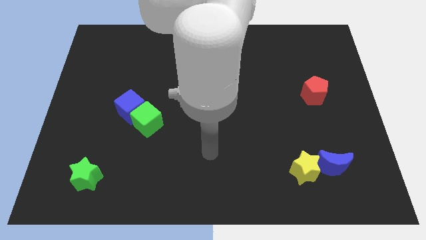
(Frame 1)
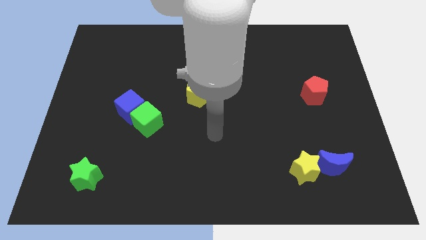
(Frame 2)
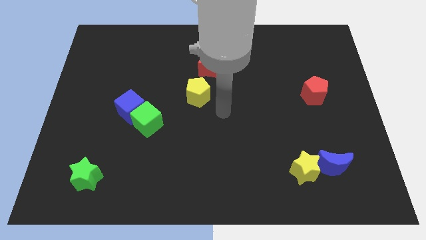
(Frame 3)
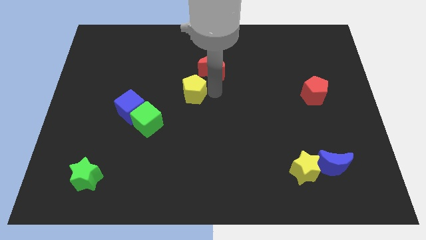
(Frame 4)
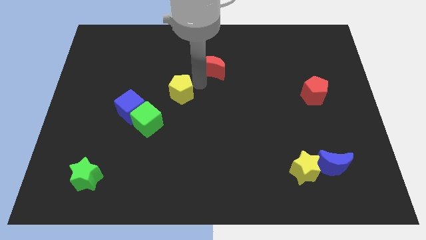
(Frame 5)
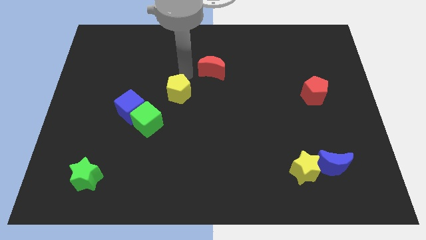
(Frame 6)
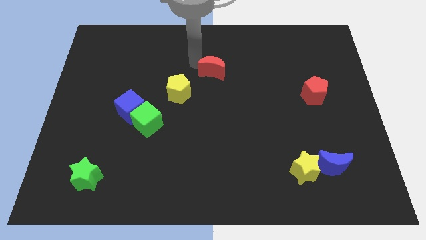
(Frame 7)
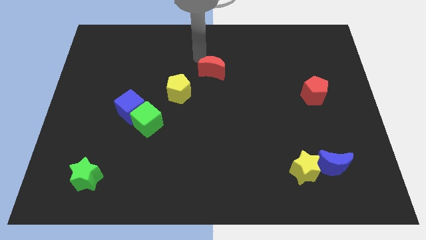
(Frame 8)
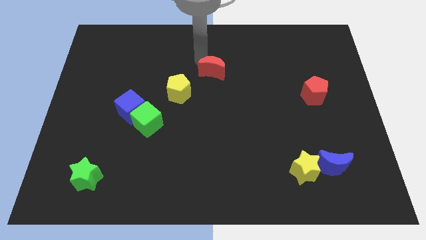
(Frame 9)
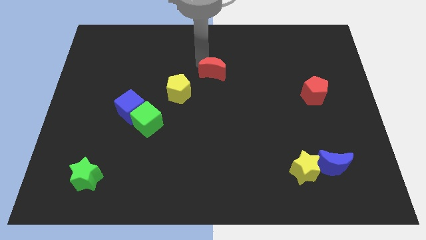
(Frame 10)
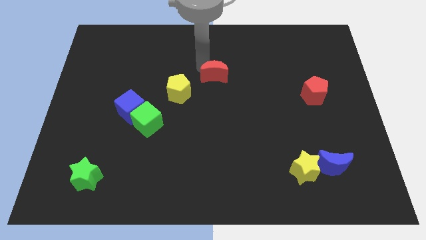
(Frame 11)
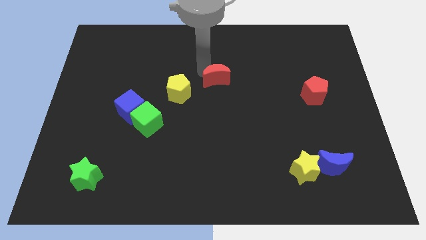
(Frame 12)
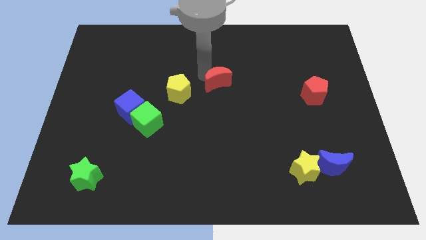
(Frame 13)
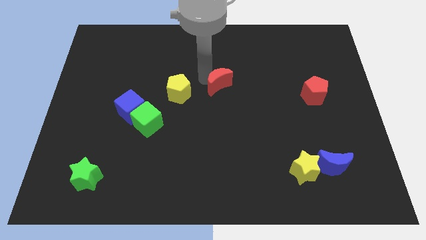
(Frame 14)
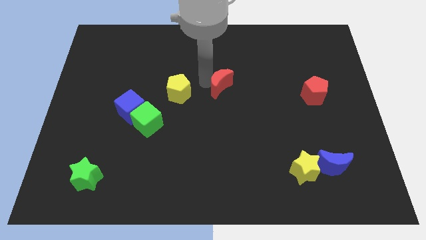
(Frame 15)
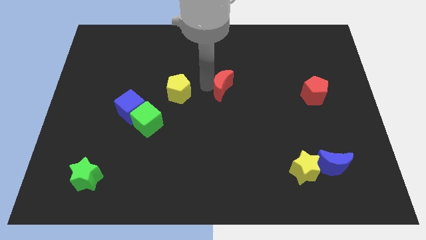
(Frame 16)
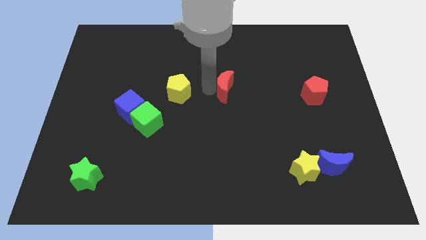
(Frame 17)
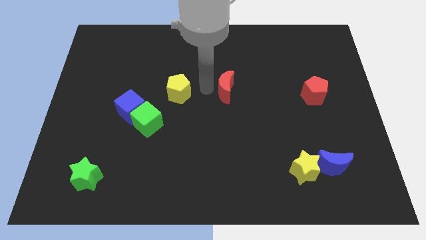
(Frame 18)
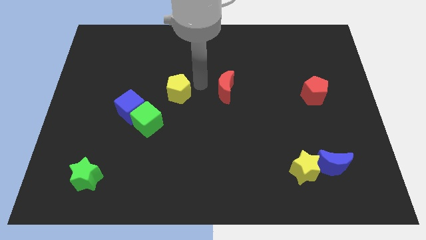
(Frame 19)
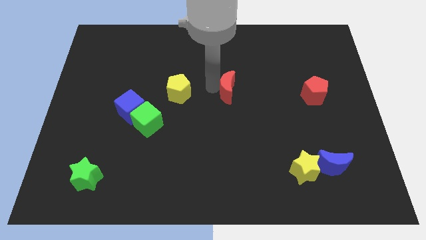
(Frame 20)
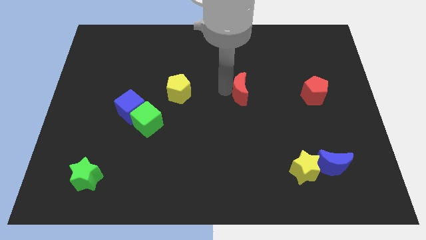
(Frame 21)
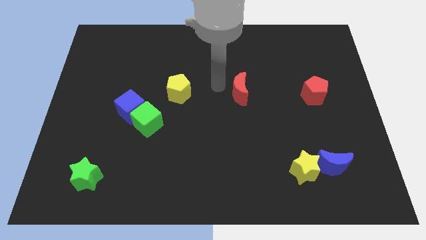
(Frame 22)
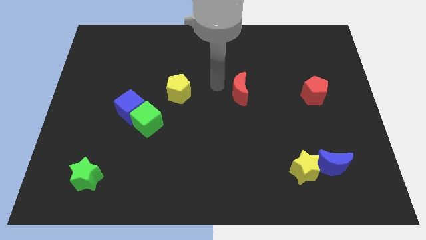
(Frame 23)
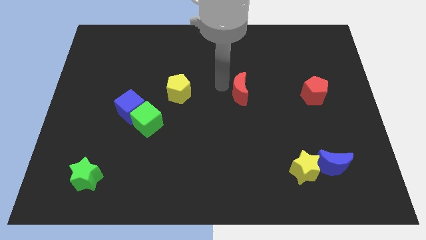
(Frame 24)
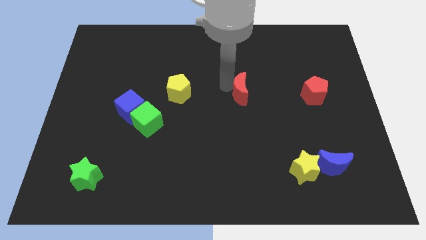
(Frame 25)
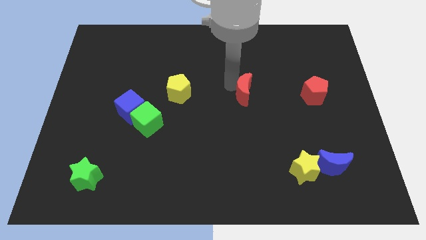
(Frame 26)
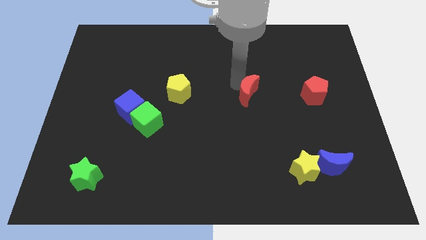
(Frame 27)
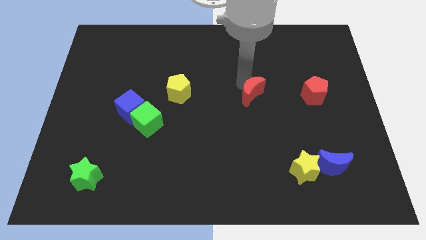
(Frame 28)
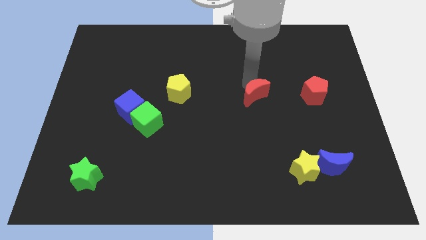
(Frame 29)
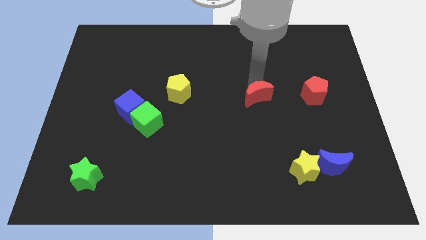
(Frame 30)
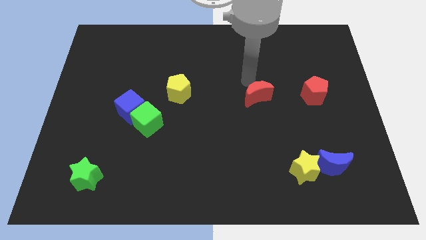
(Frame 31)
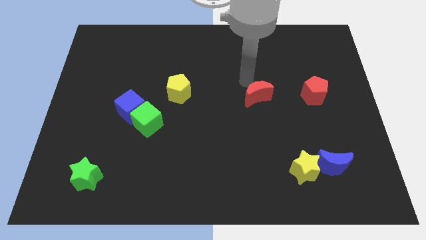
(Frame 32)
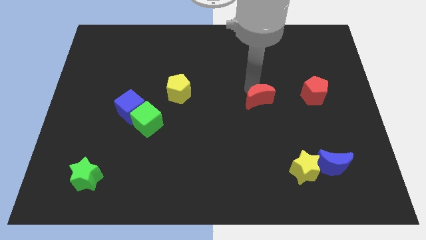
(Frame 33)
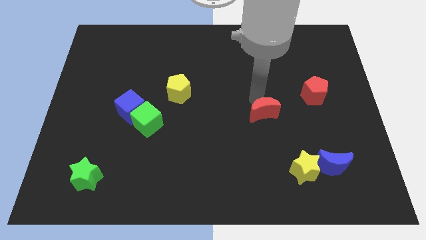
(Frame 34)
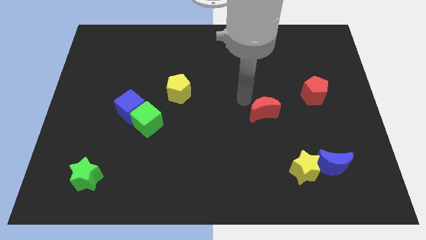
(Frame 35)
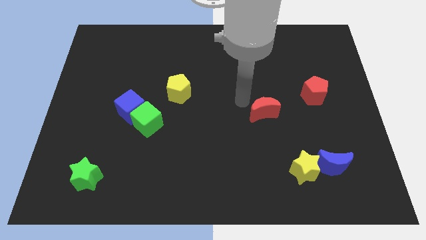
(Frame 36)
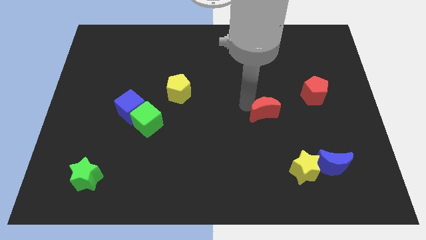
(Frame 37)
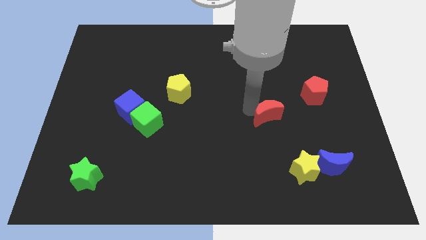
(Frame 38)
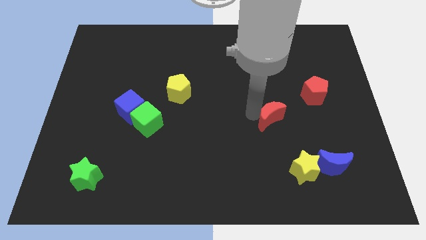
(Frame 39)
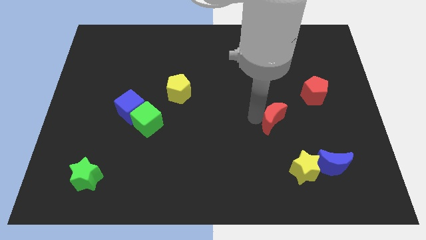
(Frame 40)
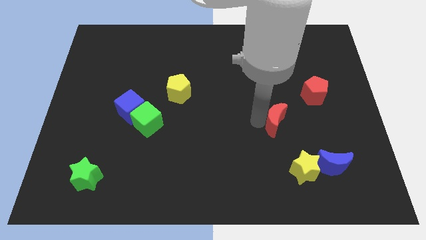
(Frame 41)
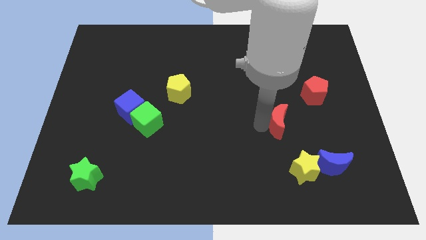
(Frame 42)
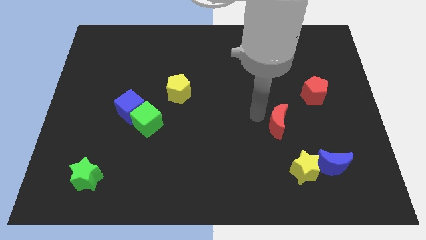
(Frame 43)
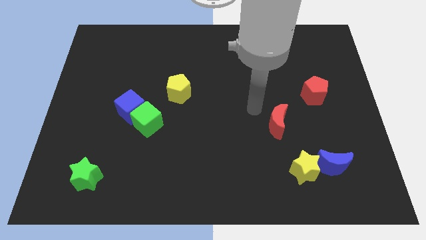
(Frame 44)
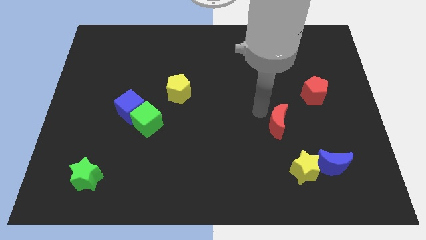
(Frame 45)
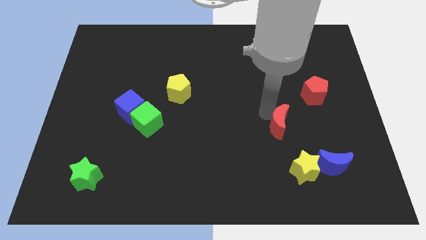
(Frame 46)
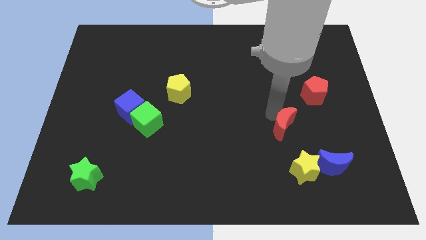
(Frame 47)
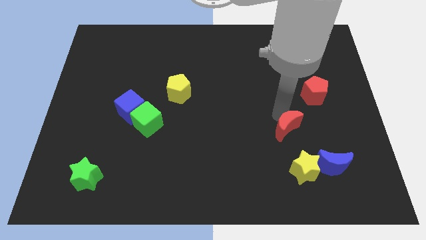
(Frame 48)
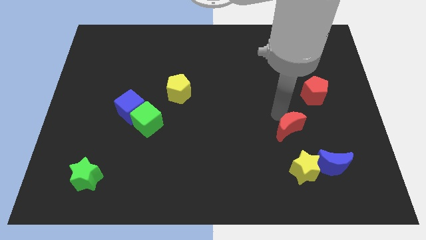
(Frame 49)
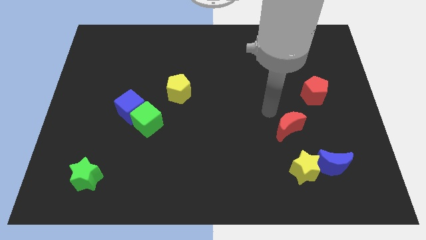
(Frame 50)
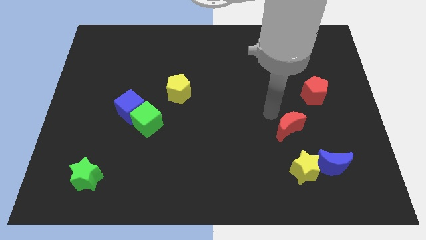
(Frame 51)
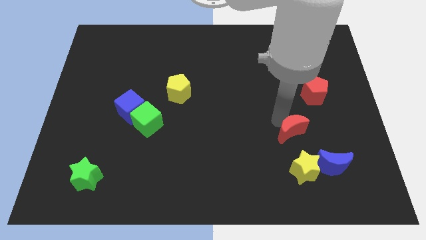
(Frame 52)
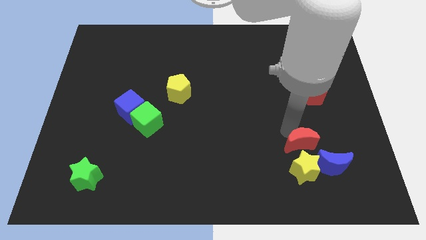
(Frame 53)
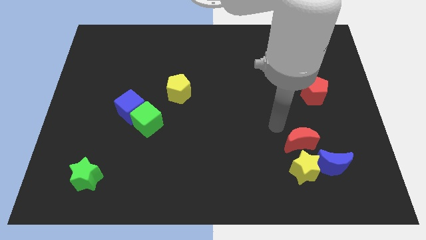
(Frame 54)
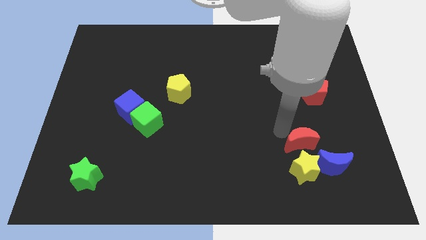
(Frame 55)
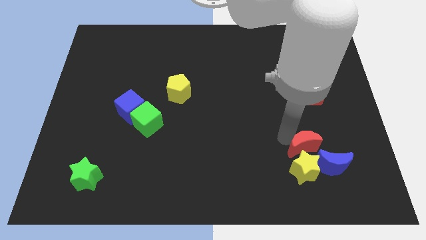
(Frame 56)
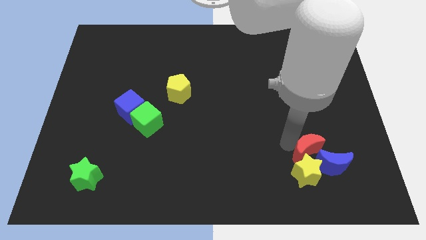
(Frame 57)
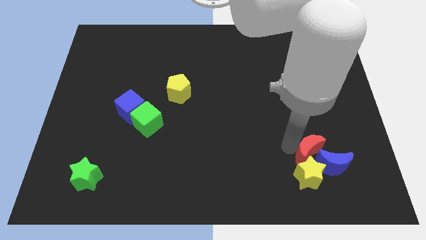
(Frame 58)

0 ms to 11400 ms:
slide the red moon close to the blue moon

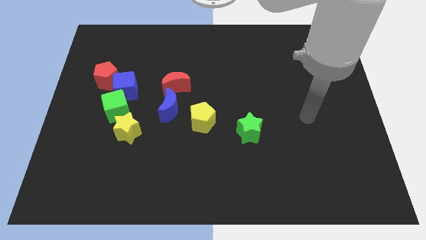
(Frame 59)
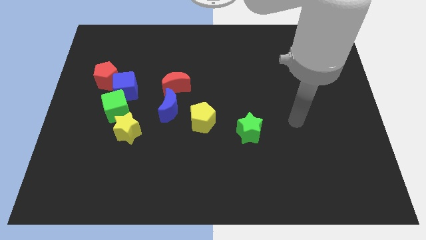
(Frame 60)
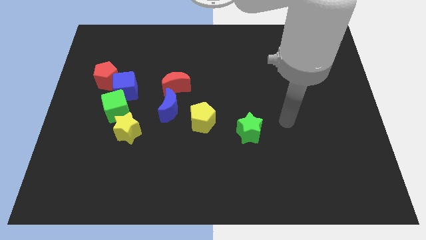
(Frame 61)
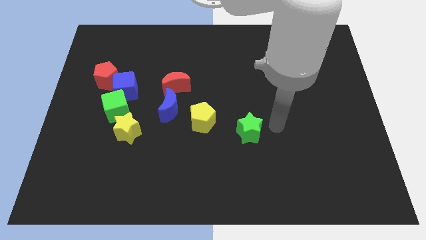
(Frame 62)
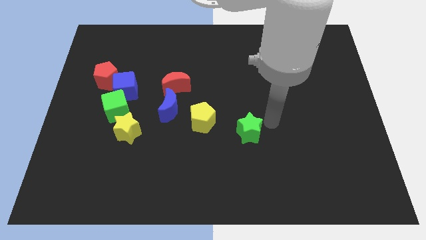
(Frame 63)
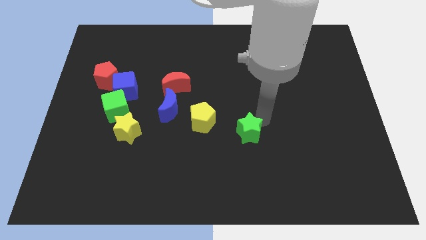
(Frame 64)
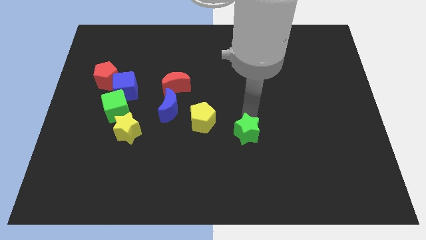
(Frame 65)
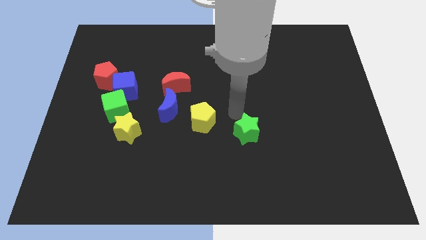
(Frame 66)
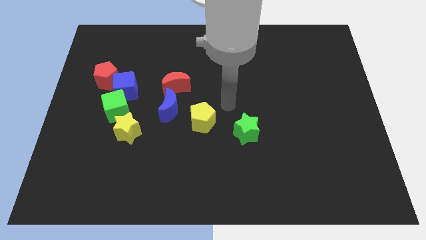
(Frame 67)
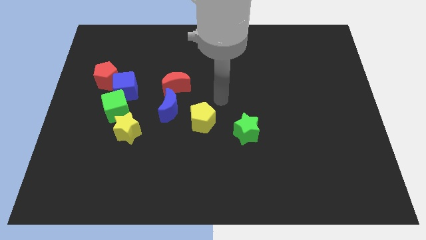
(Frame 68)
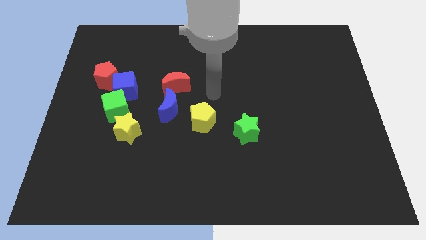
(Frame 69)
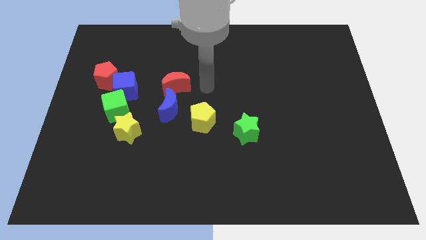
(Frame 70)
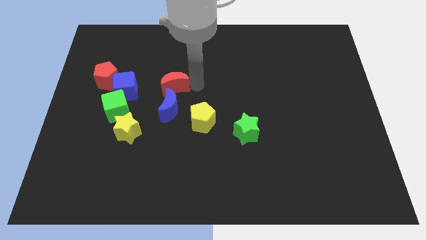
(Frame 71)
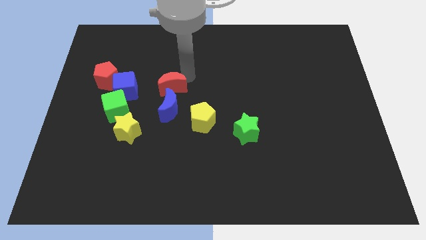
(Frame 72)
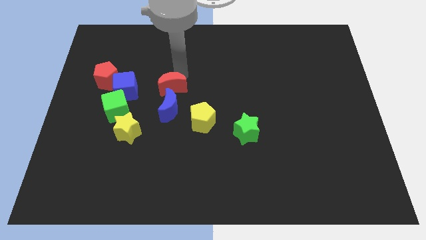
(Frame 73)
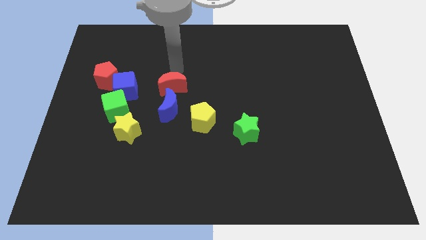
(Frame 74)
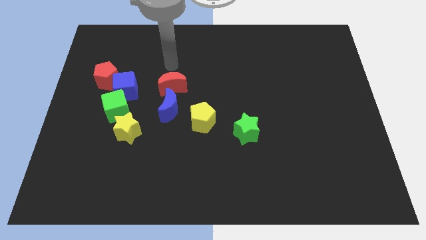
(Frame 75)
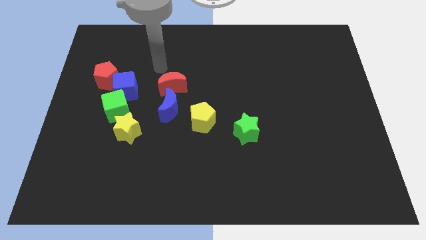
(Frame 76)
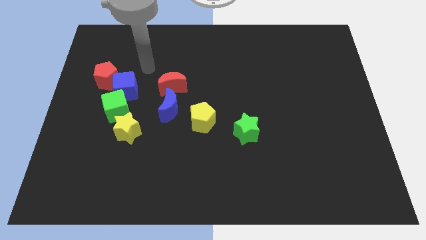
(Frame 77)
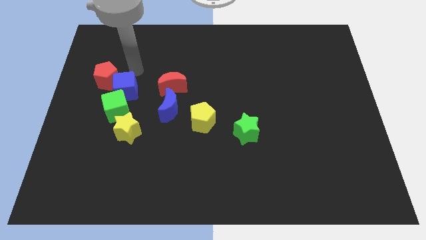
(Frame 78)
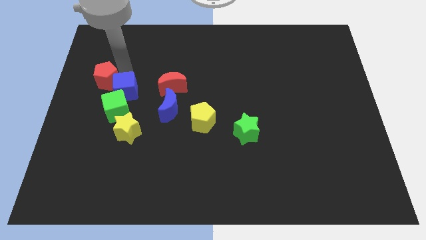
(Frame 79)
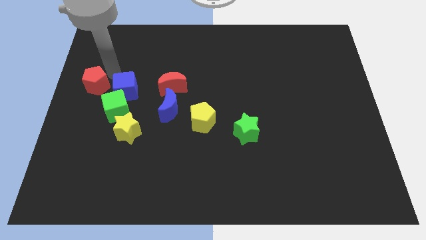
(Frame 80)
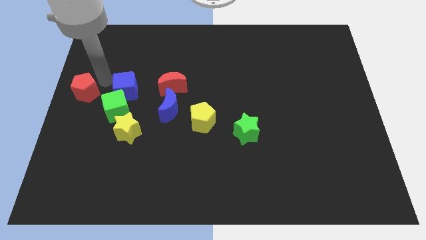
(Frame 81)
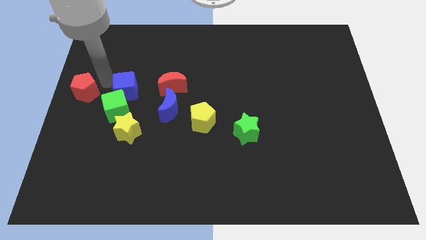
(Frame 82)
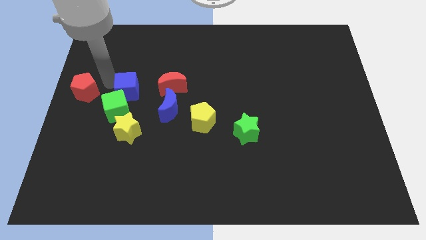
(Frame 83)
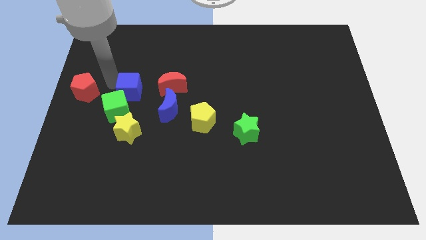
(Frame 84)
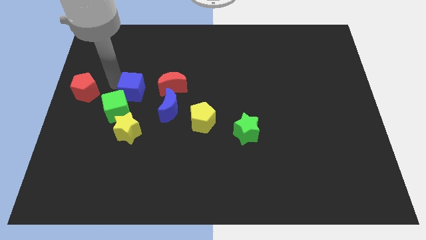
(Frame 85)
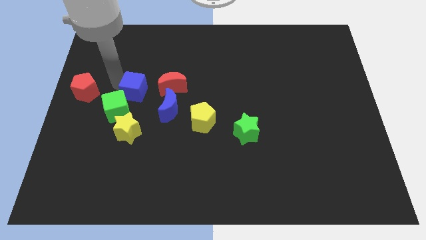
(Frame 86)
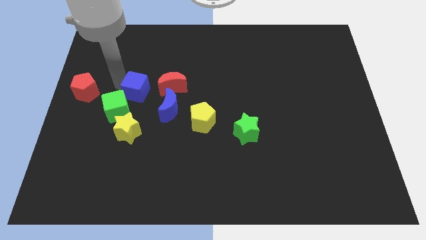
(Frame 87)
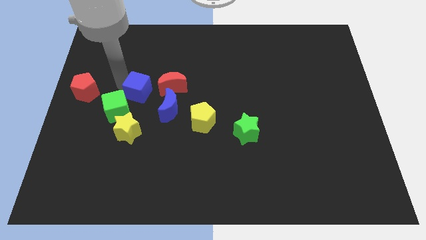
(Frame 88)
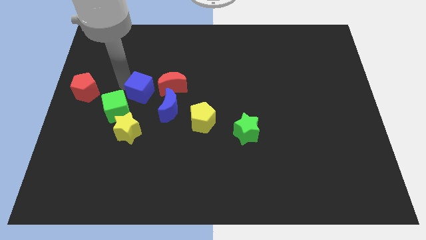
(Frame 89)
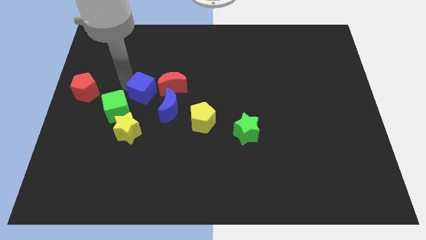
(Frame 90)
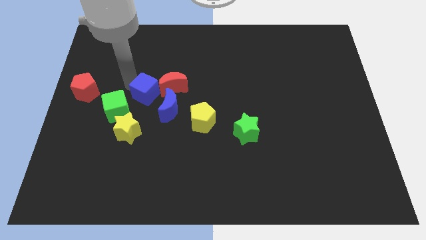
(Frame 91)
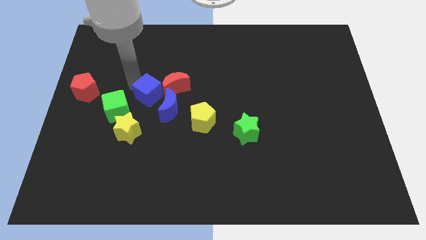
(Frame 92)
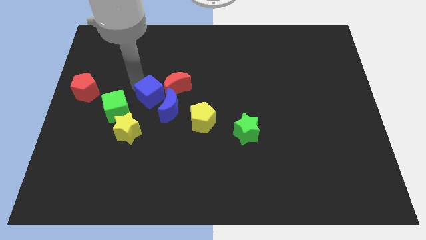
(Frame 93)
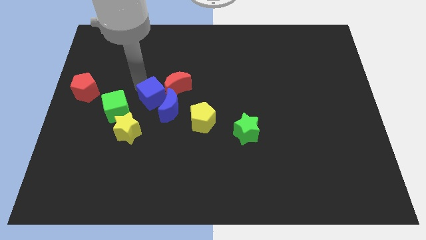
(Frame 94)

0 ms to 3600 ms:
push the blue cube to the blue moon
